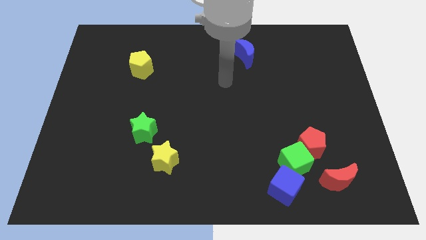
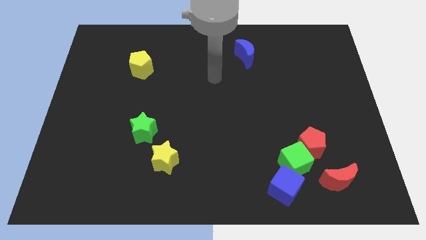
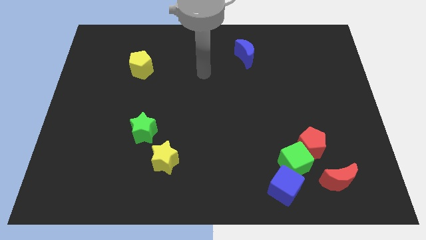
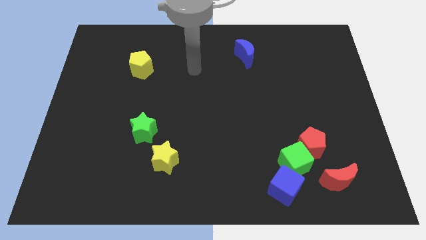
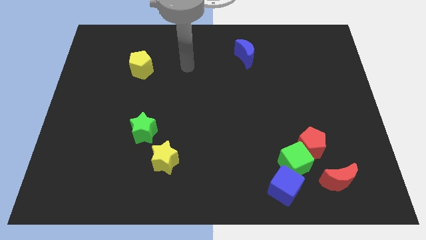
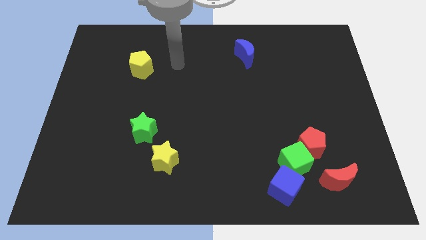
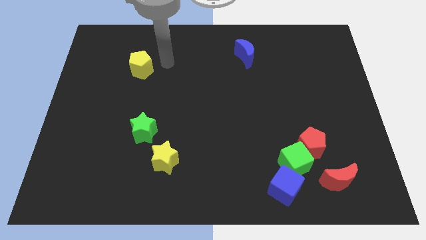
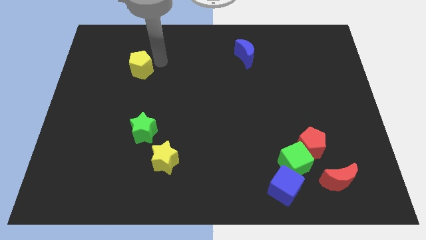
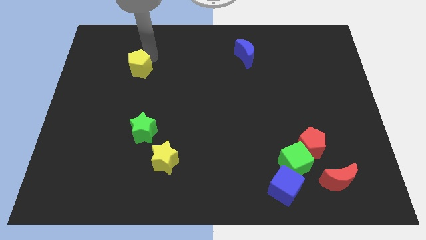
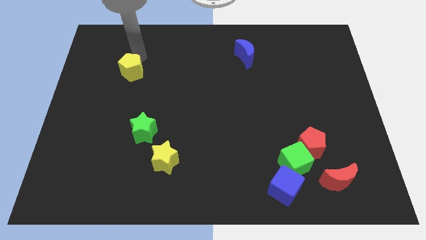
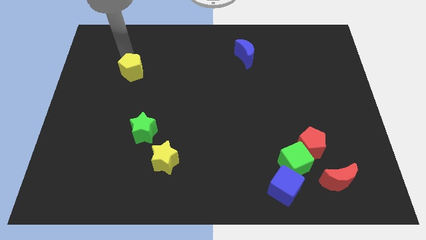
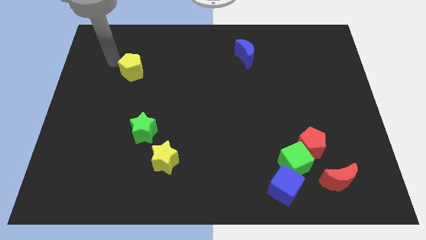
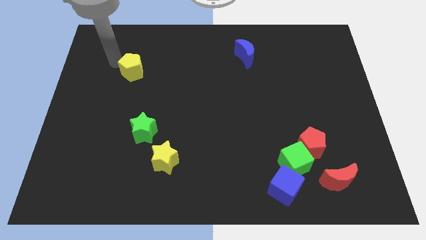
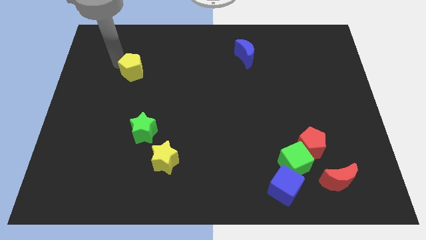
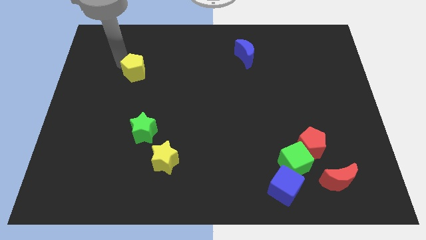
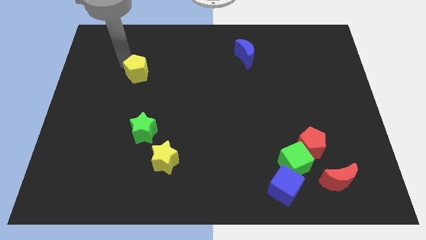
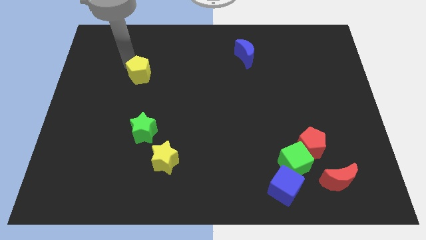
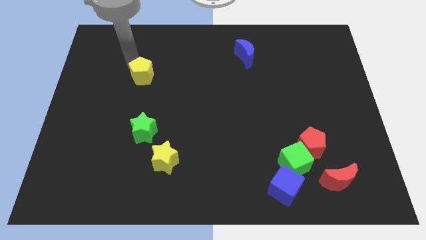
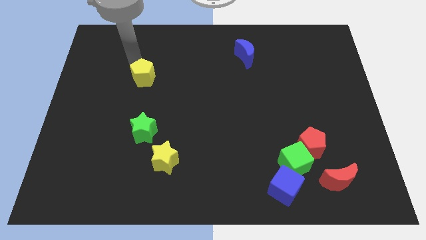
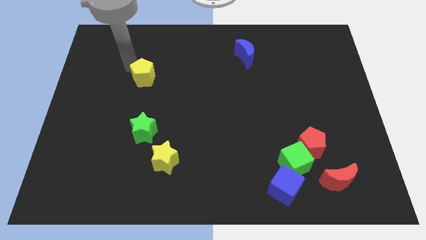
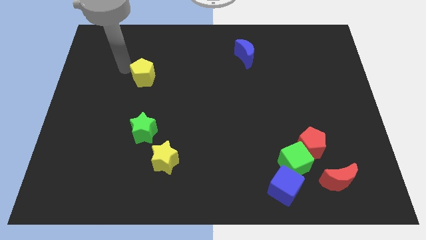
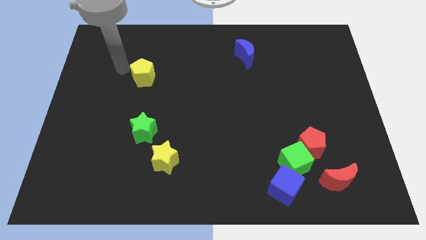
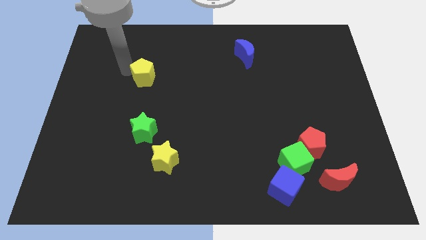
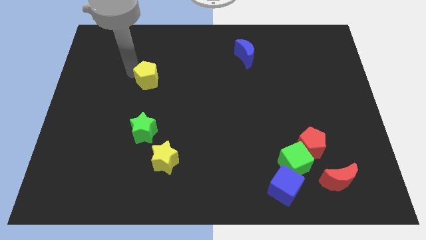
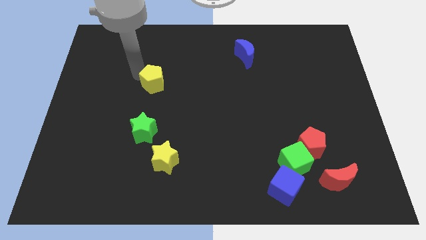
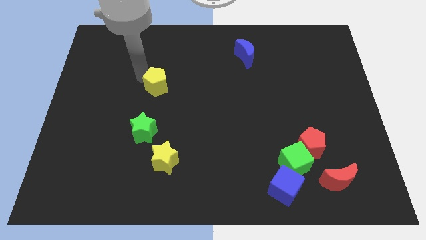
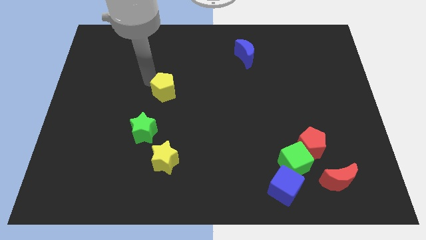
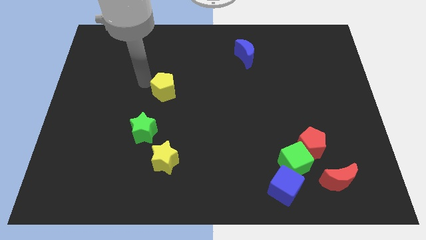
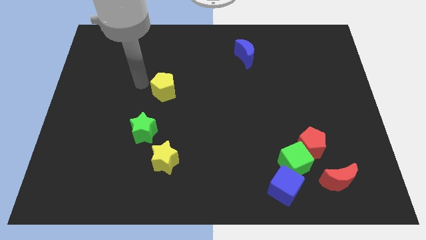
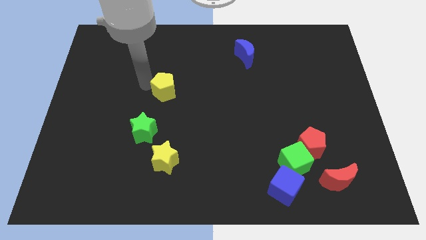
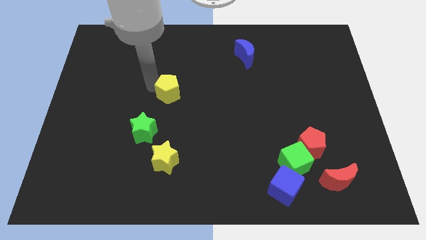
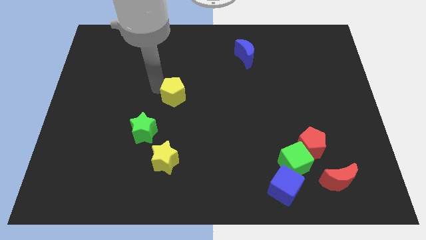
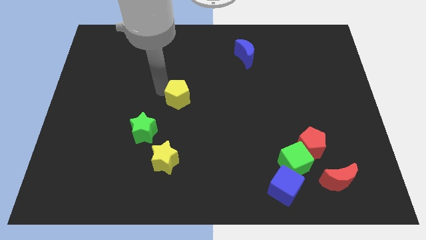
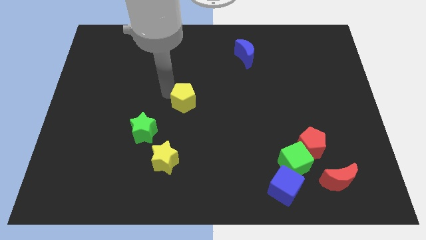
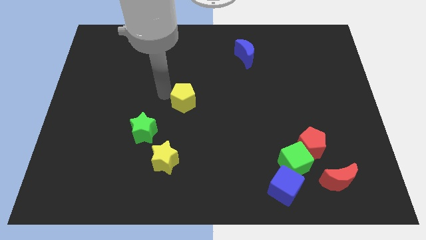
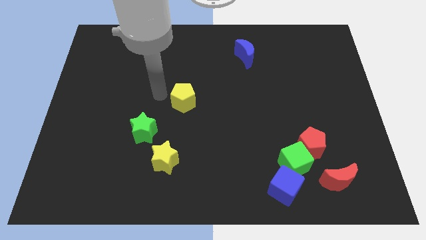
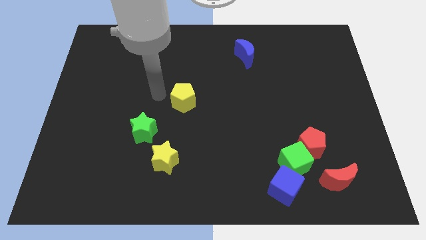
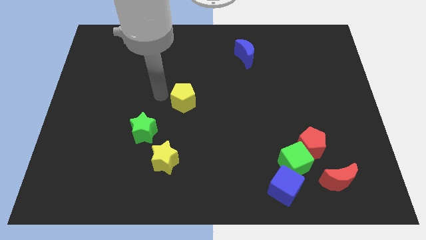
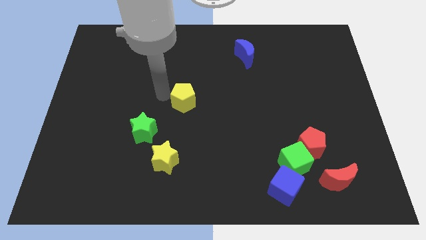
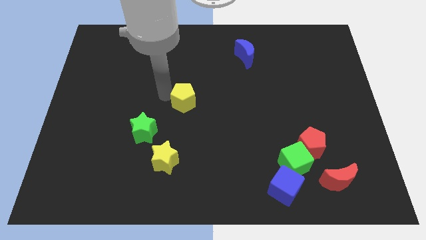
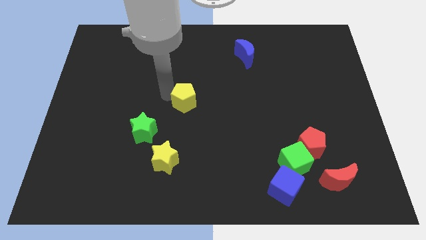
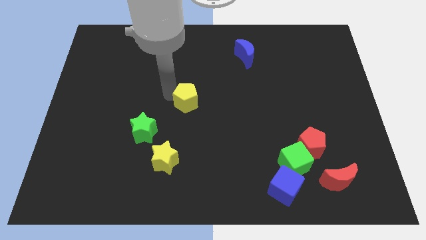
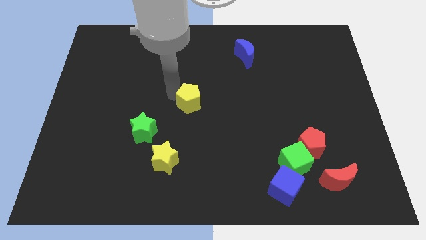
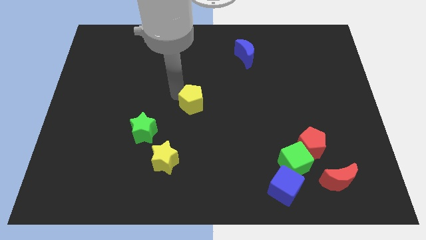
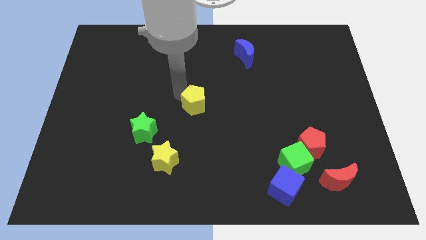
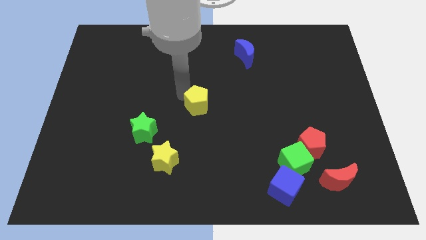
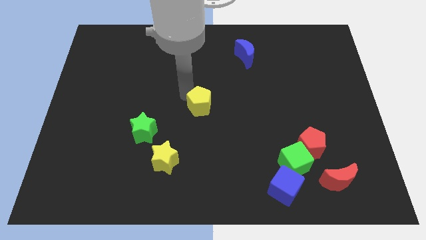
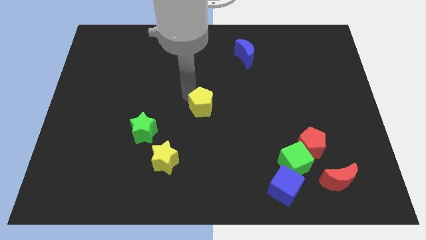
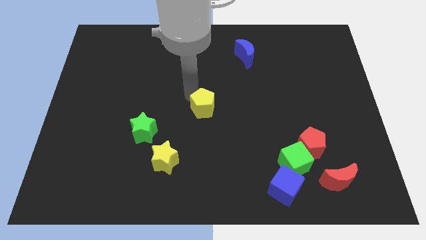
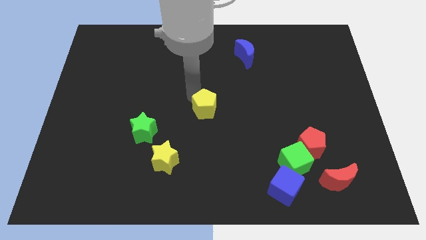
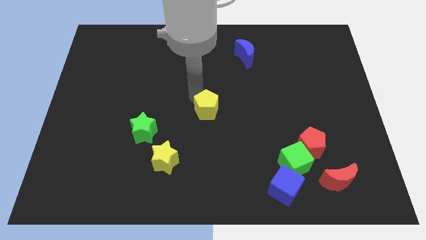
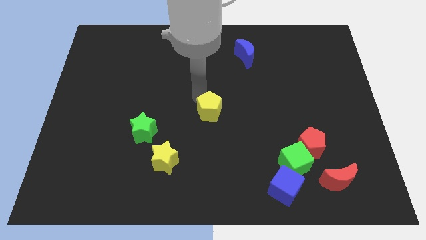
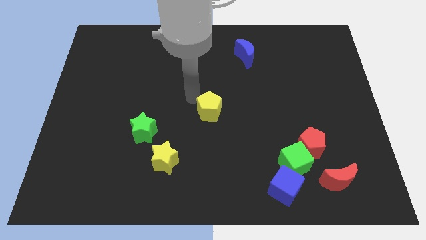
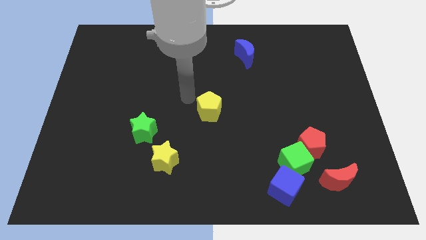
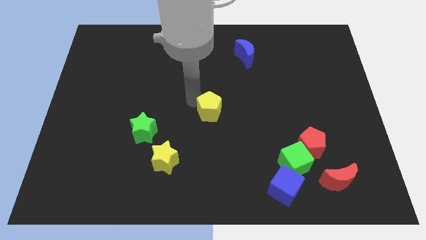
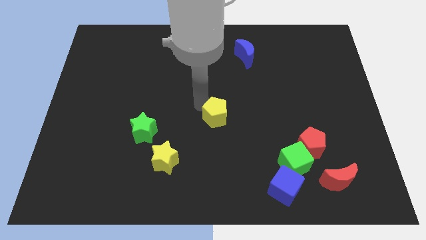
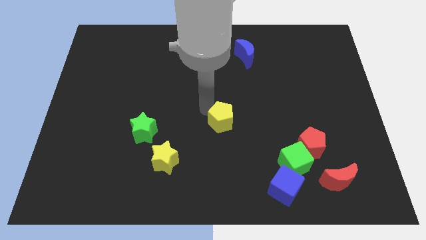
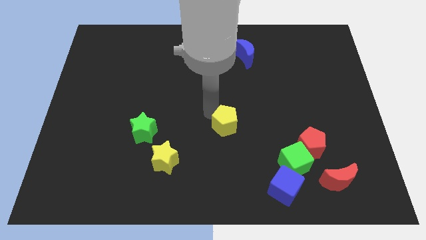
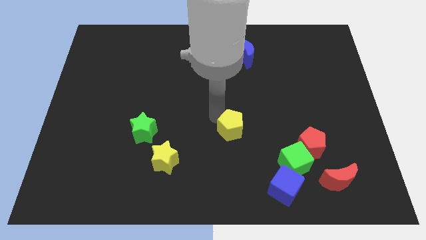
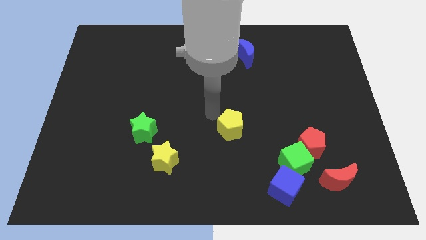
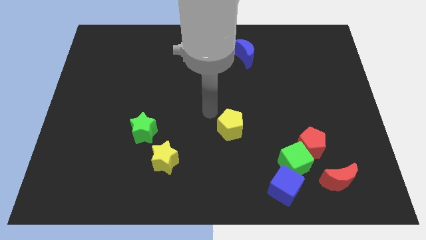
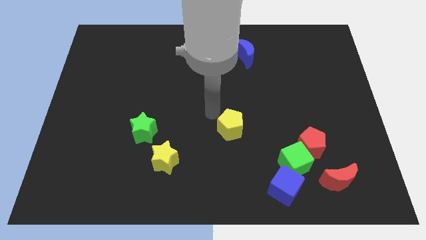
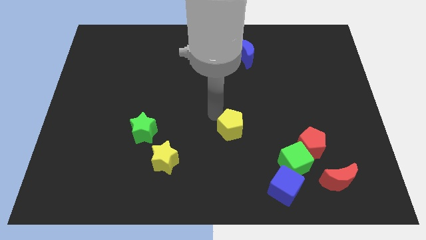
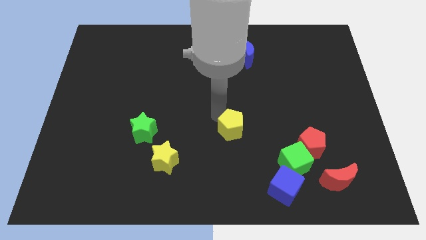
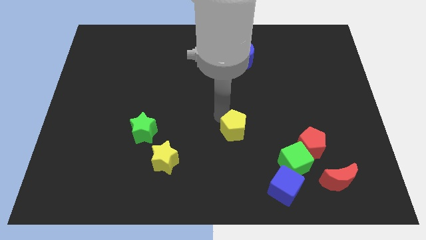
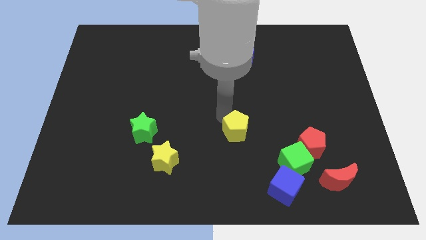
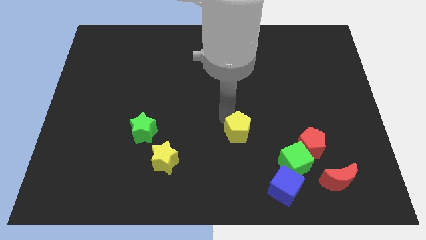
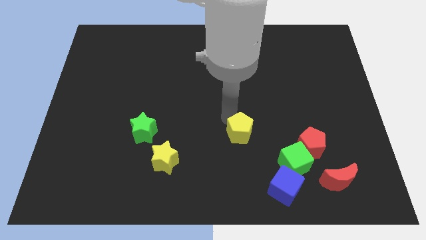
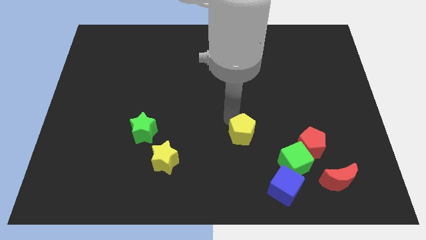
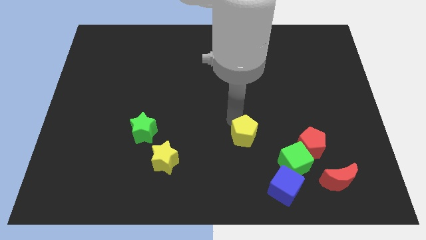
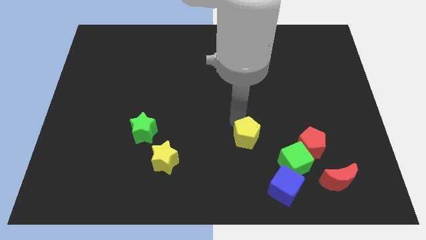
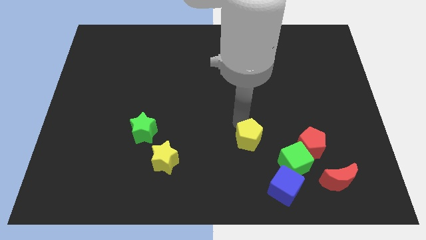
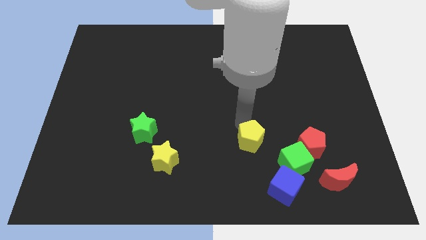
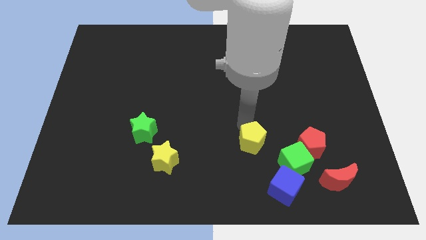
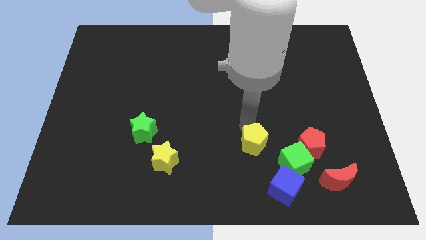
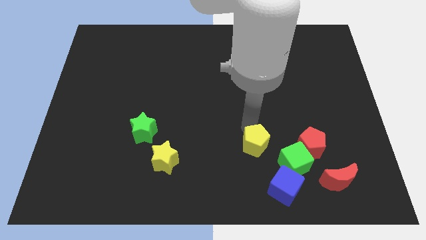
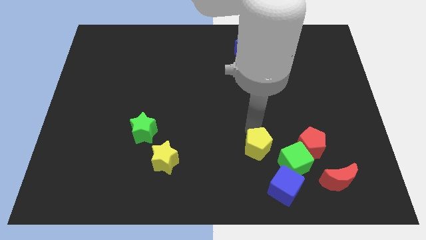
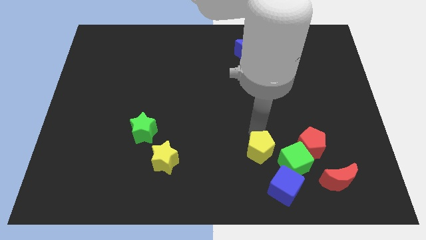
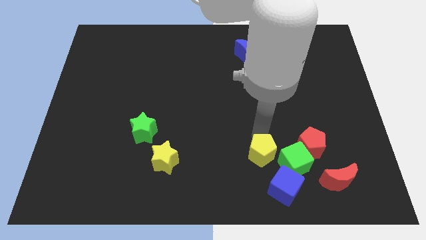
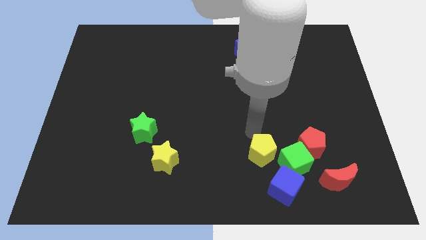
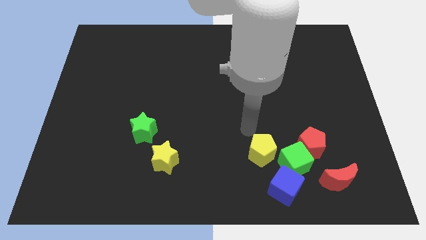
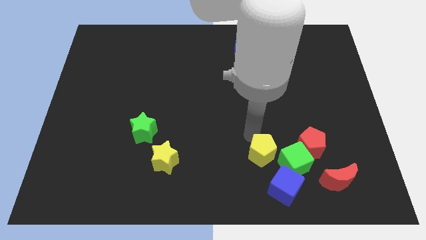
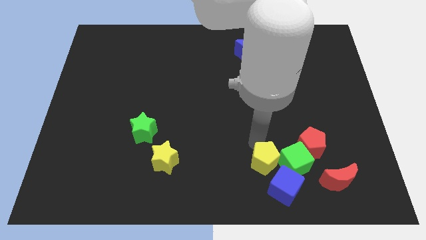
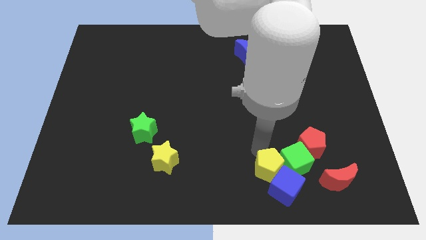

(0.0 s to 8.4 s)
put the yellow pentagon close to the blue cube
